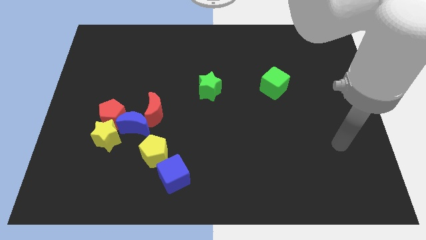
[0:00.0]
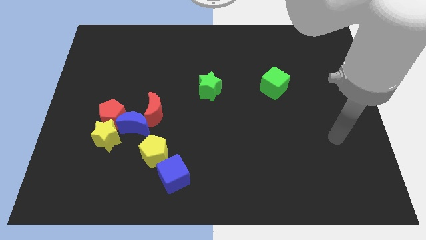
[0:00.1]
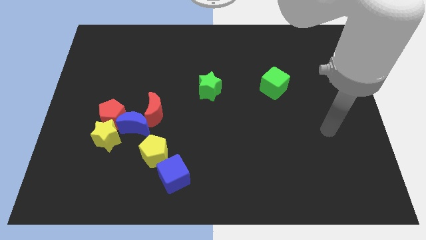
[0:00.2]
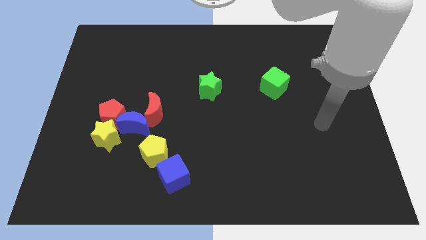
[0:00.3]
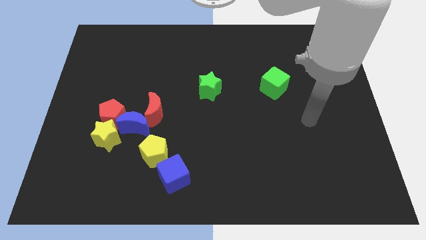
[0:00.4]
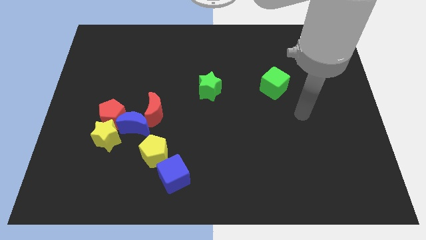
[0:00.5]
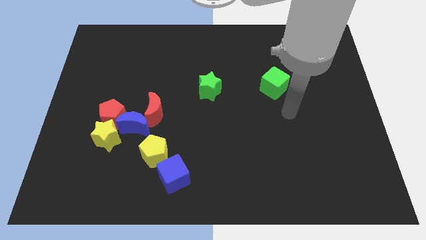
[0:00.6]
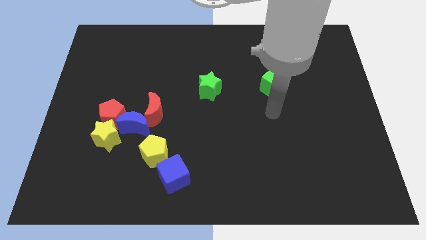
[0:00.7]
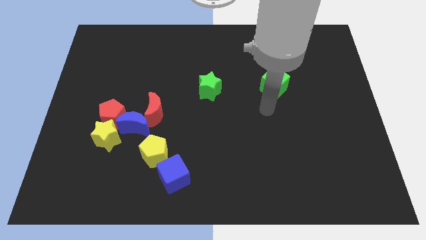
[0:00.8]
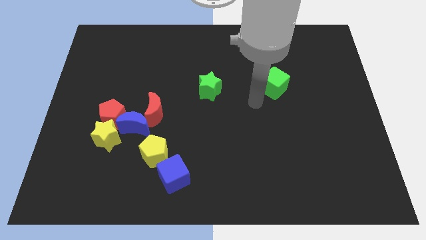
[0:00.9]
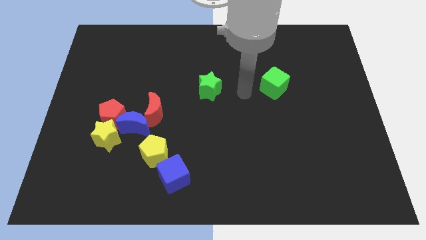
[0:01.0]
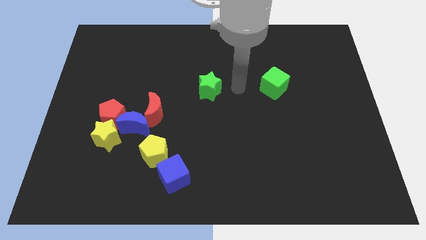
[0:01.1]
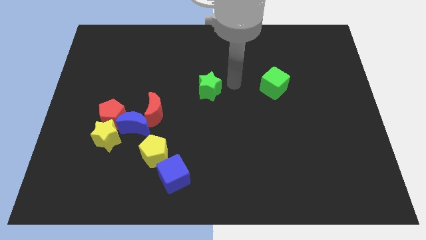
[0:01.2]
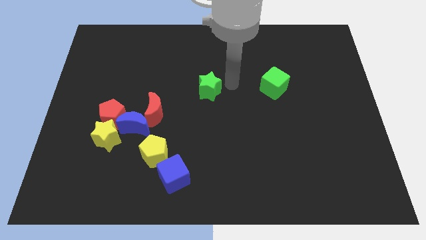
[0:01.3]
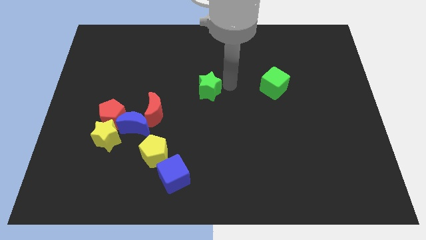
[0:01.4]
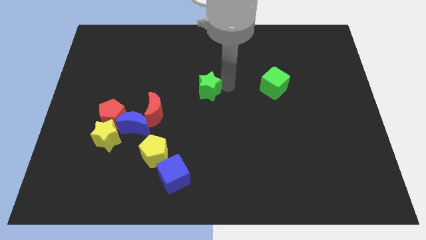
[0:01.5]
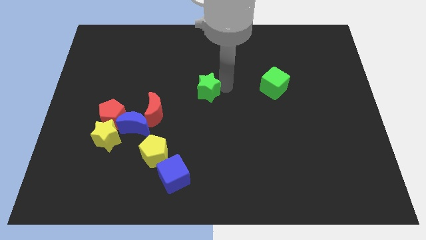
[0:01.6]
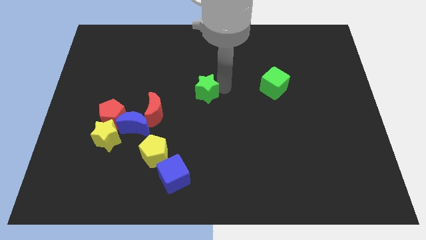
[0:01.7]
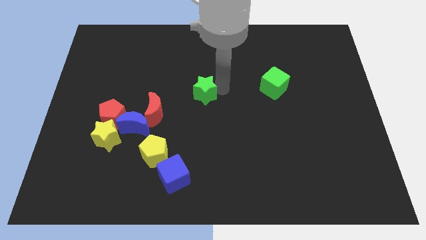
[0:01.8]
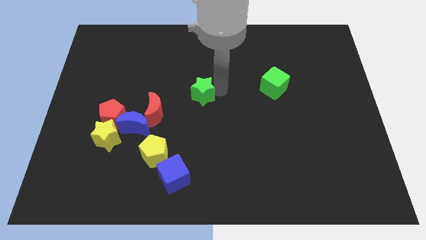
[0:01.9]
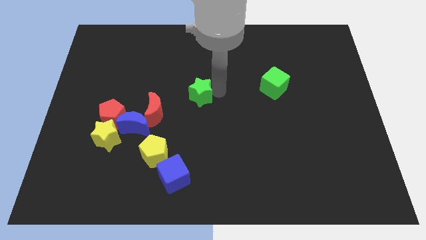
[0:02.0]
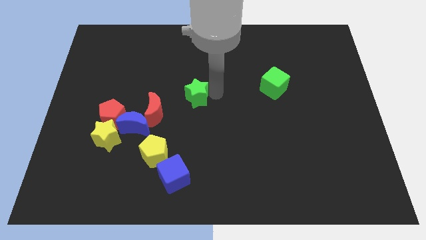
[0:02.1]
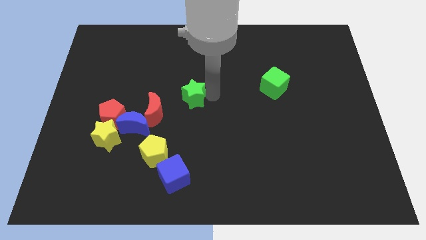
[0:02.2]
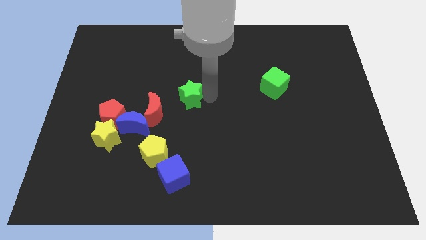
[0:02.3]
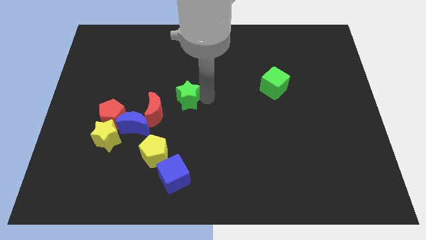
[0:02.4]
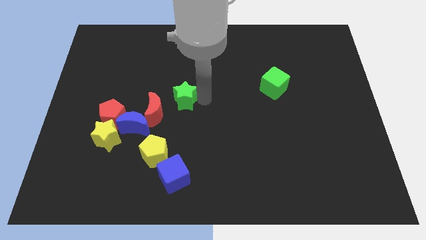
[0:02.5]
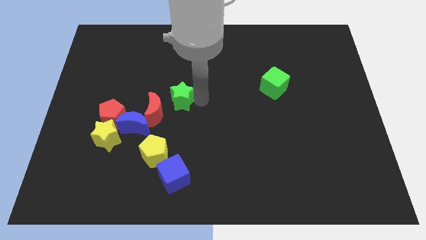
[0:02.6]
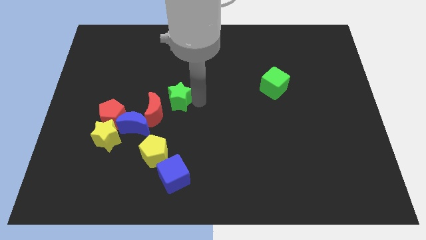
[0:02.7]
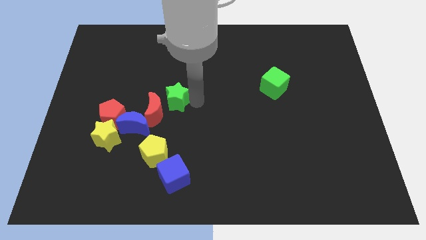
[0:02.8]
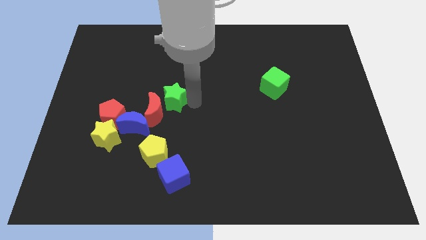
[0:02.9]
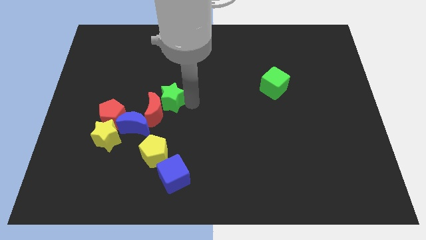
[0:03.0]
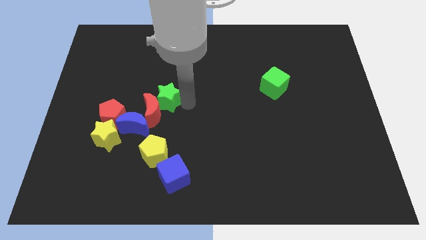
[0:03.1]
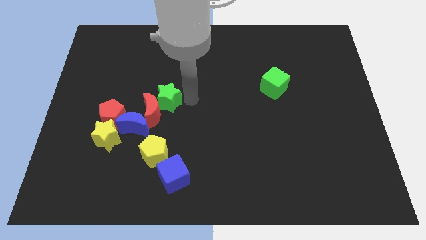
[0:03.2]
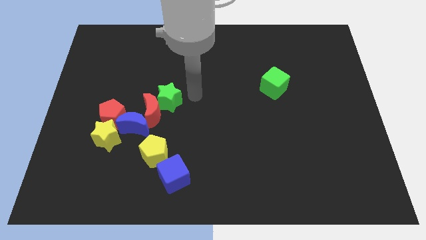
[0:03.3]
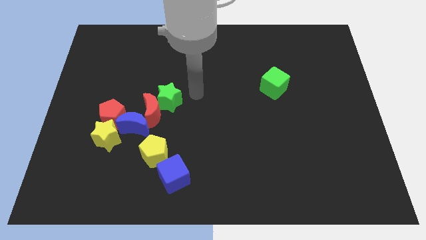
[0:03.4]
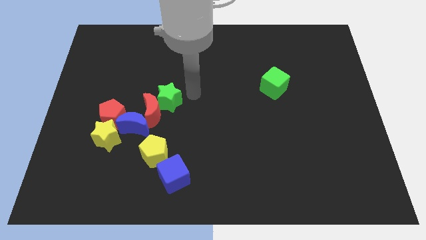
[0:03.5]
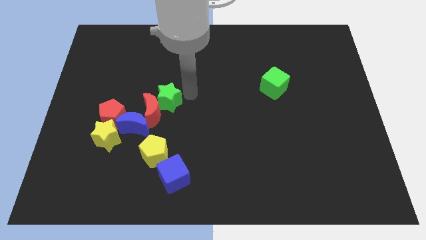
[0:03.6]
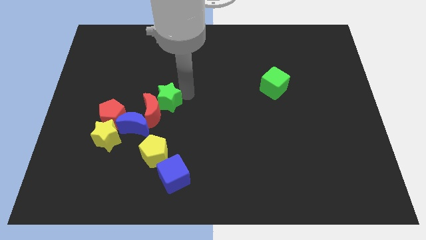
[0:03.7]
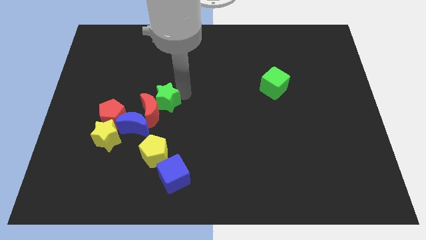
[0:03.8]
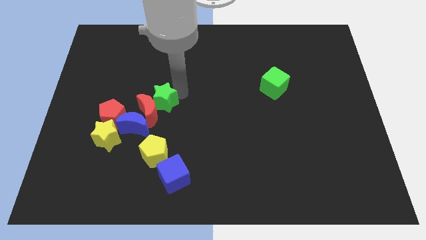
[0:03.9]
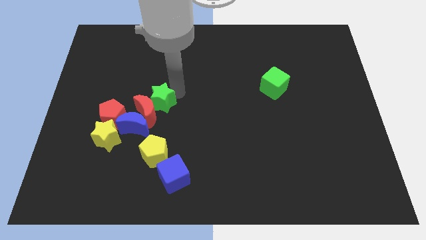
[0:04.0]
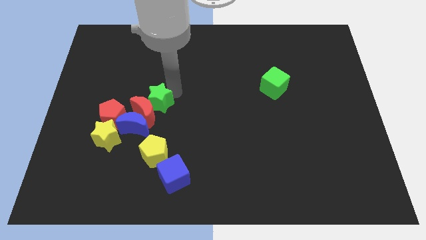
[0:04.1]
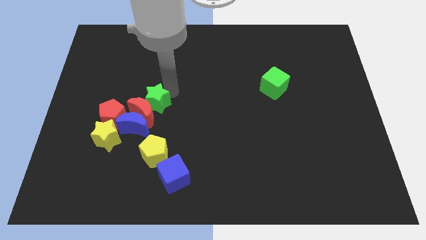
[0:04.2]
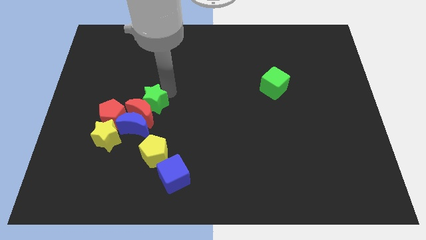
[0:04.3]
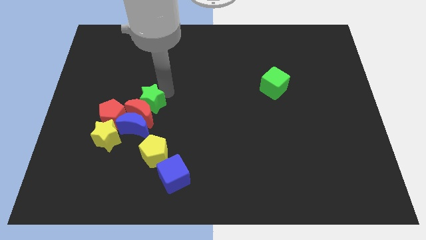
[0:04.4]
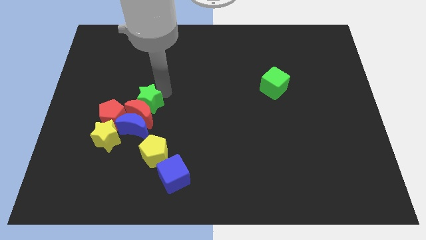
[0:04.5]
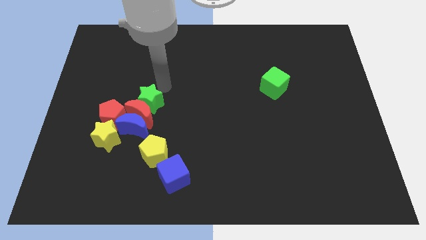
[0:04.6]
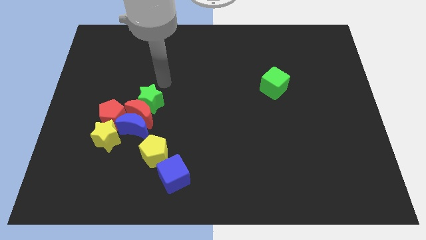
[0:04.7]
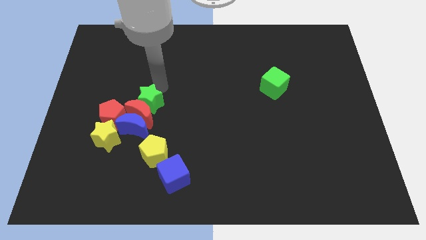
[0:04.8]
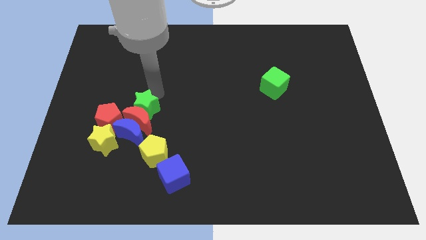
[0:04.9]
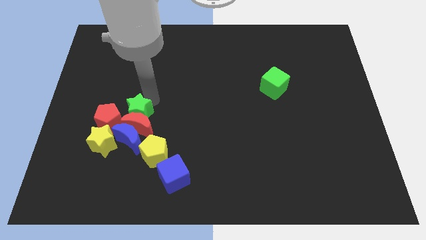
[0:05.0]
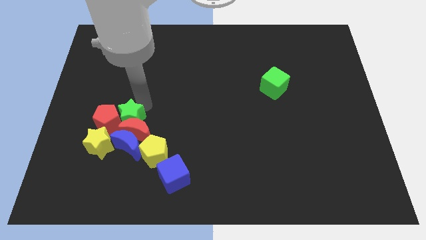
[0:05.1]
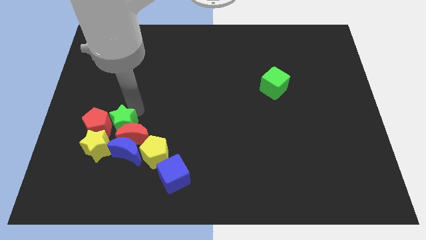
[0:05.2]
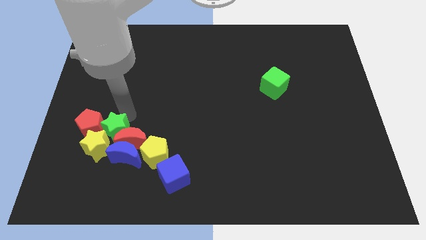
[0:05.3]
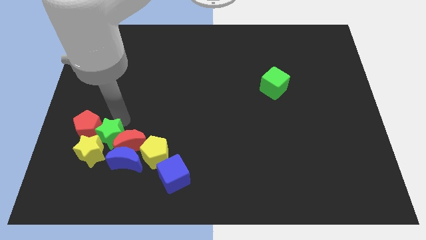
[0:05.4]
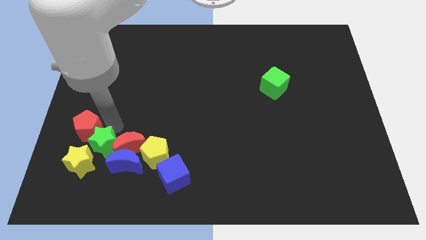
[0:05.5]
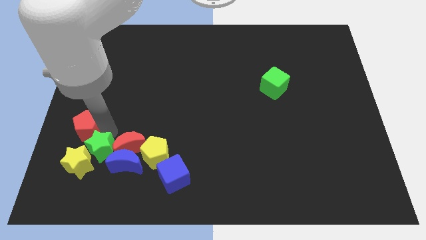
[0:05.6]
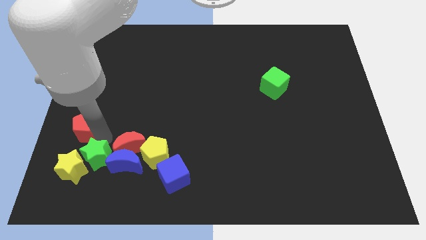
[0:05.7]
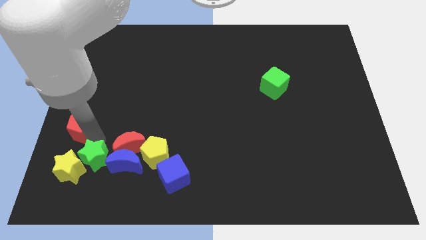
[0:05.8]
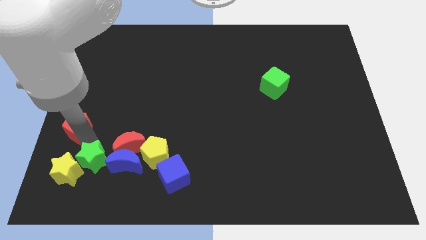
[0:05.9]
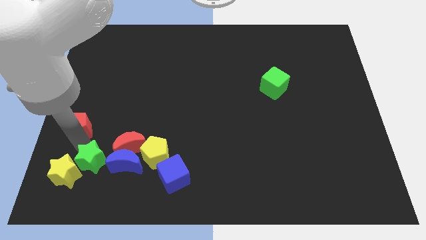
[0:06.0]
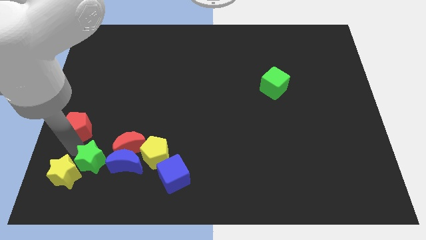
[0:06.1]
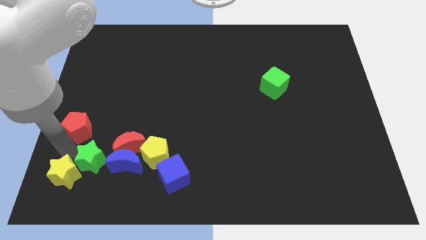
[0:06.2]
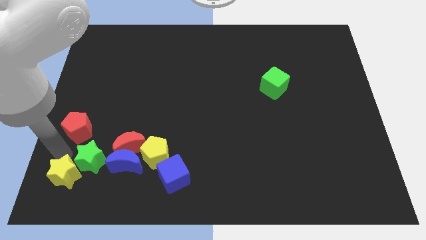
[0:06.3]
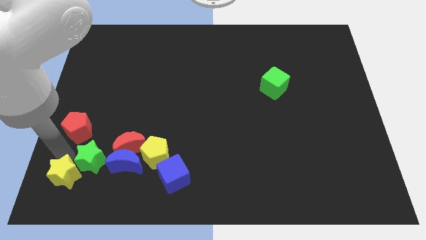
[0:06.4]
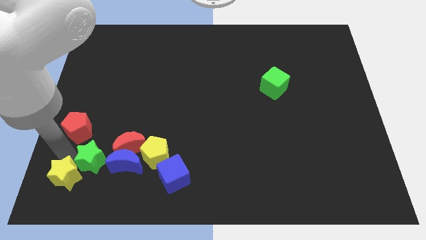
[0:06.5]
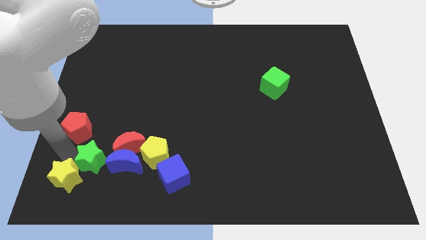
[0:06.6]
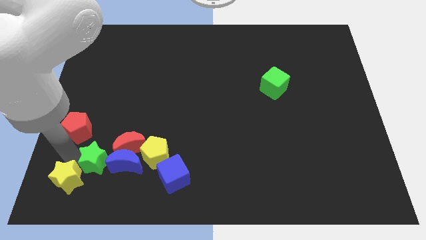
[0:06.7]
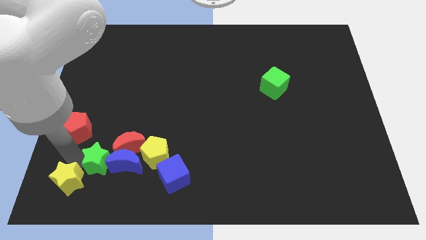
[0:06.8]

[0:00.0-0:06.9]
move the green star towards the blue moon

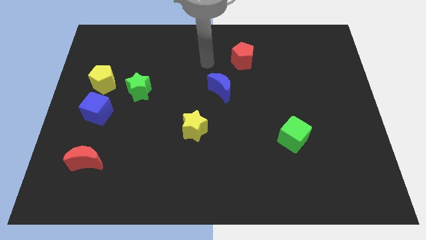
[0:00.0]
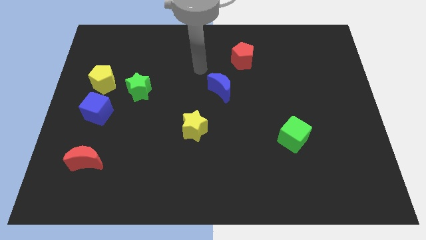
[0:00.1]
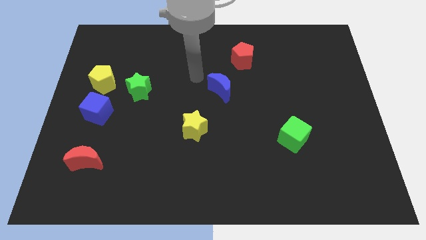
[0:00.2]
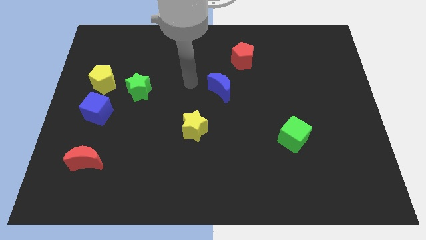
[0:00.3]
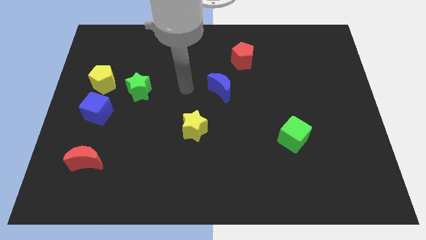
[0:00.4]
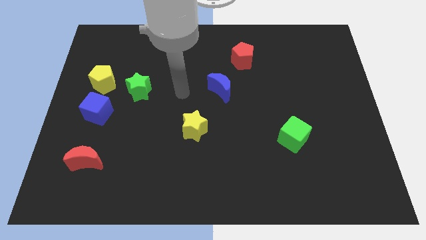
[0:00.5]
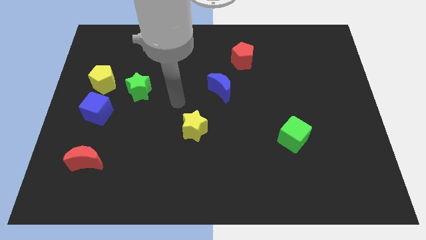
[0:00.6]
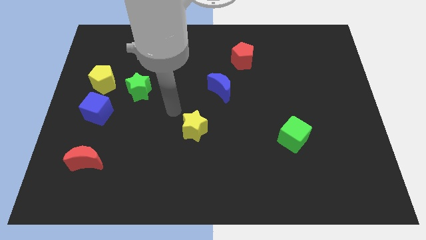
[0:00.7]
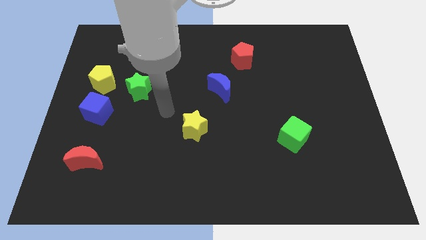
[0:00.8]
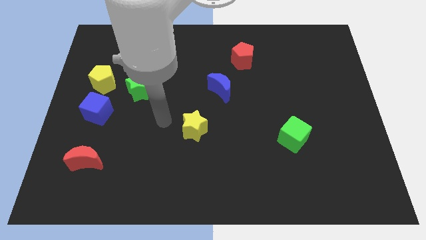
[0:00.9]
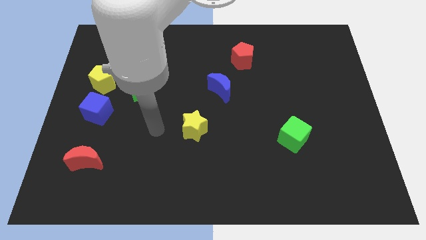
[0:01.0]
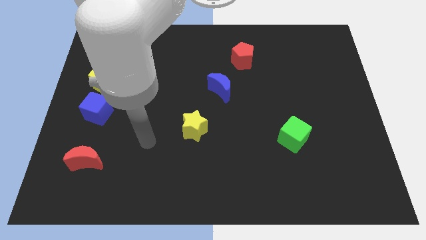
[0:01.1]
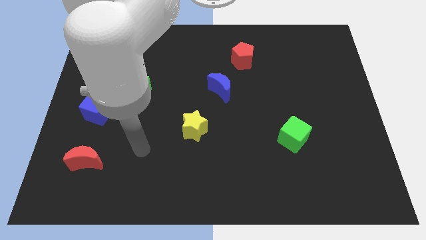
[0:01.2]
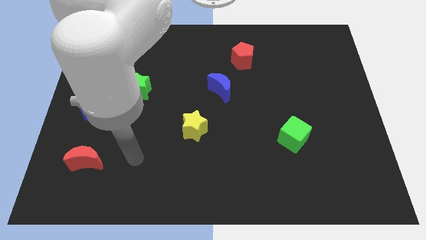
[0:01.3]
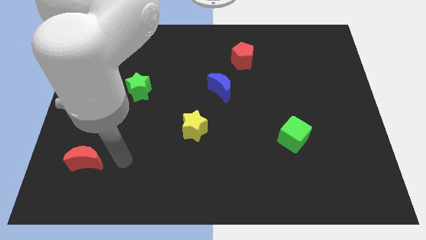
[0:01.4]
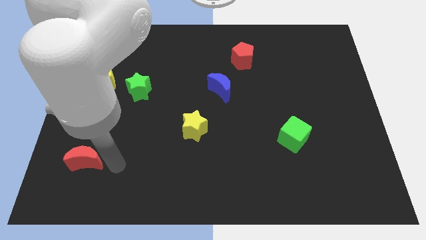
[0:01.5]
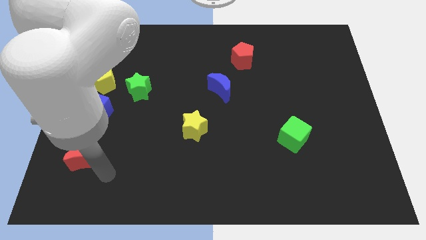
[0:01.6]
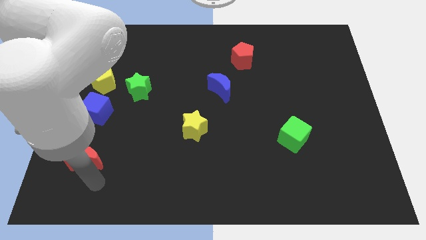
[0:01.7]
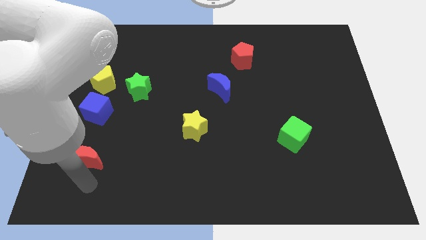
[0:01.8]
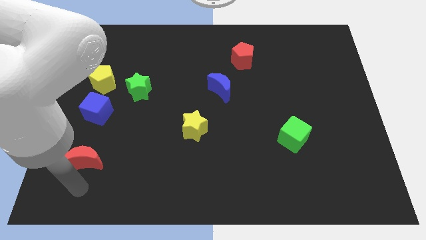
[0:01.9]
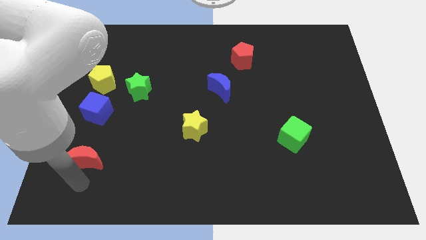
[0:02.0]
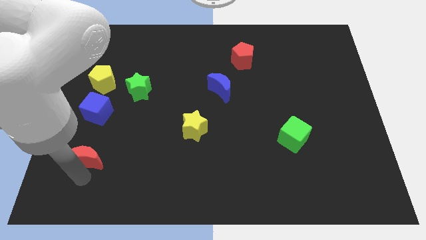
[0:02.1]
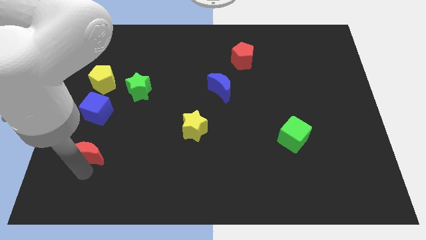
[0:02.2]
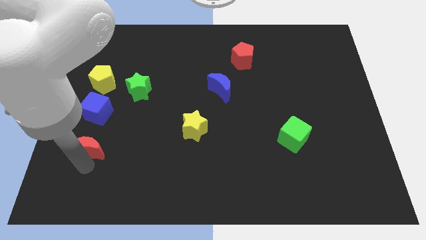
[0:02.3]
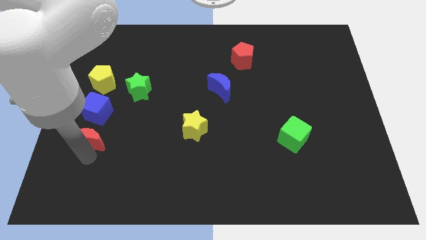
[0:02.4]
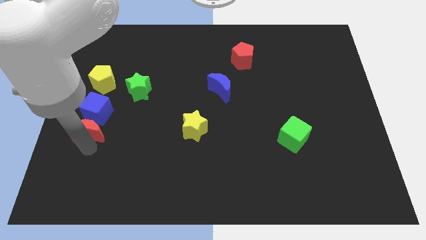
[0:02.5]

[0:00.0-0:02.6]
move the red moon towards the blue cube
